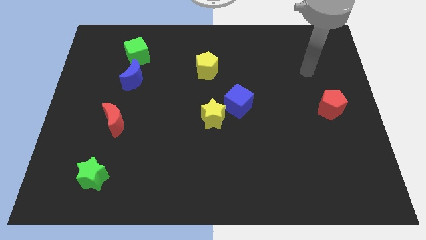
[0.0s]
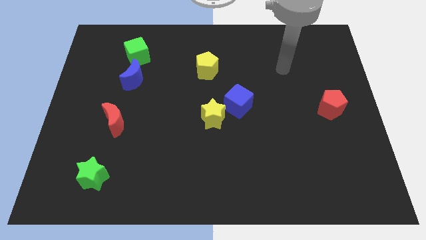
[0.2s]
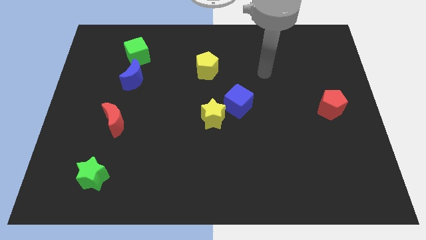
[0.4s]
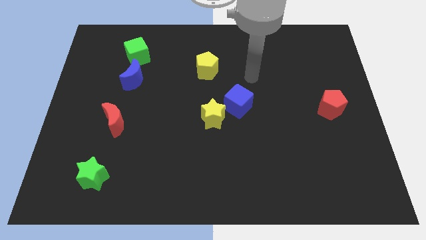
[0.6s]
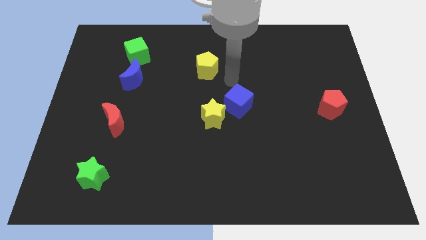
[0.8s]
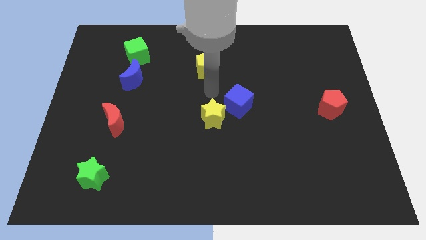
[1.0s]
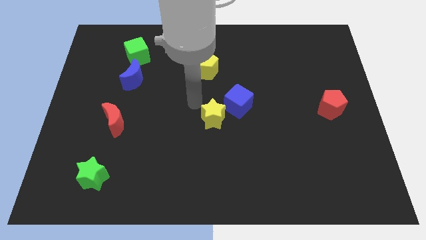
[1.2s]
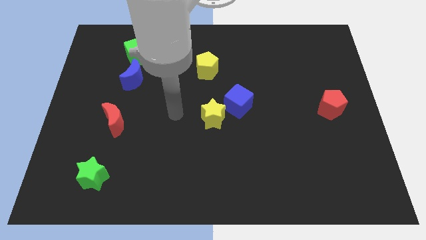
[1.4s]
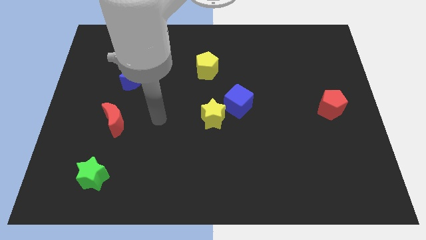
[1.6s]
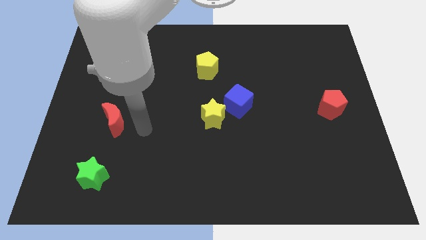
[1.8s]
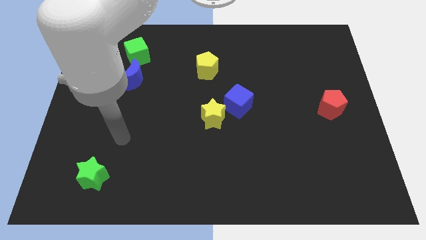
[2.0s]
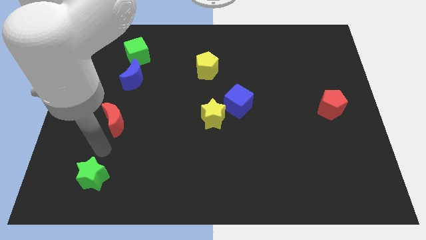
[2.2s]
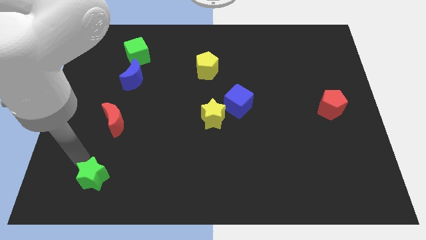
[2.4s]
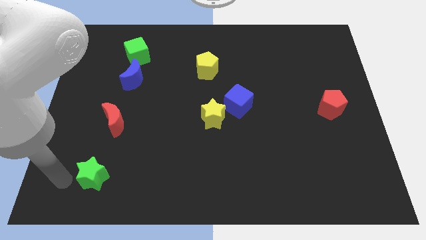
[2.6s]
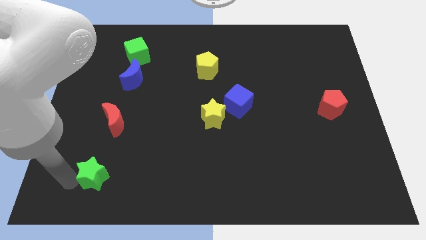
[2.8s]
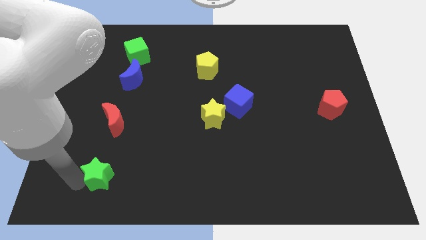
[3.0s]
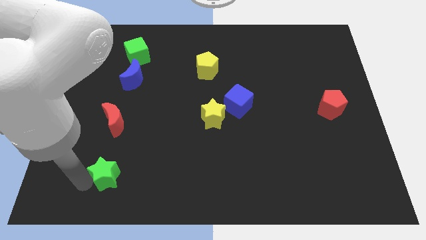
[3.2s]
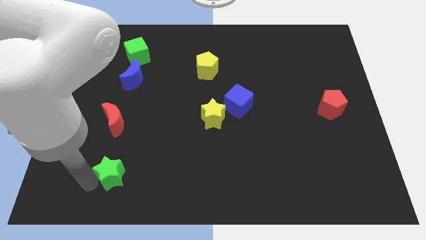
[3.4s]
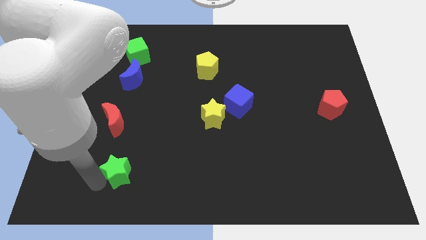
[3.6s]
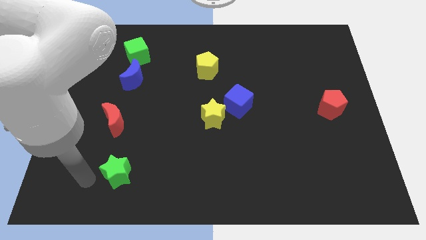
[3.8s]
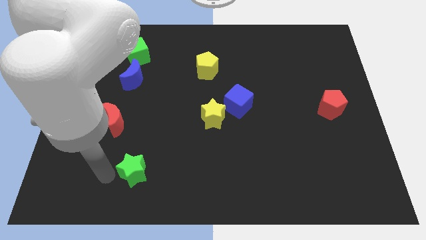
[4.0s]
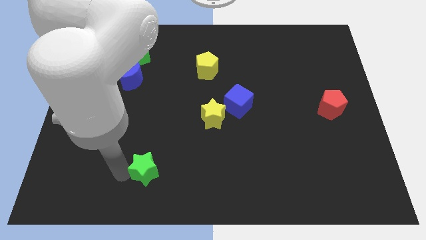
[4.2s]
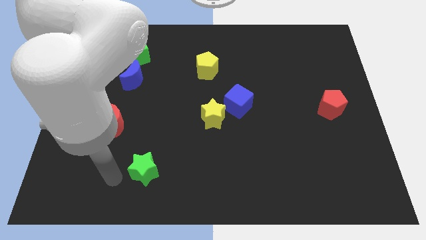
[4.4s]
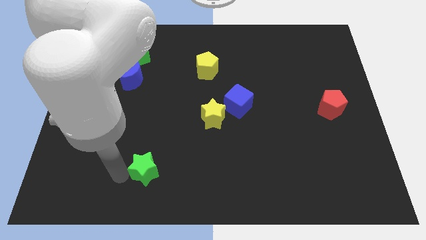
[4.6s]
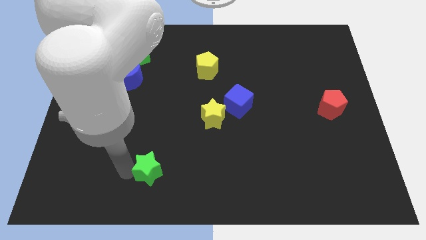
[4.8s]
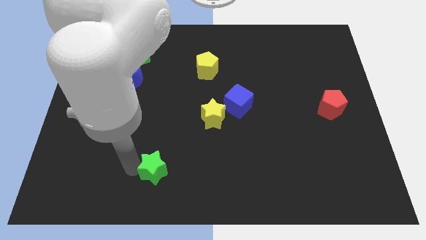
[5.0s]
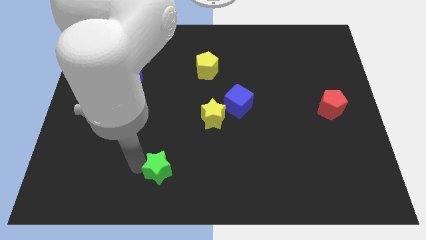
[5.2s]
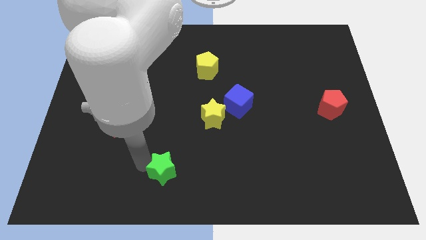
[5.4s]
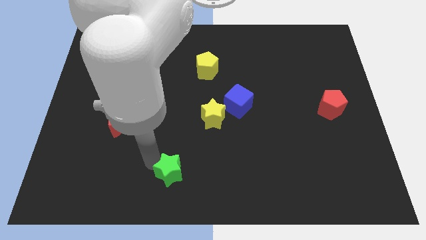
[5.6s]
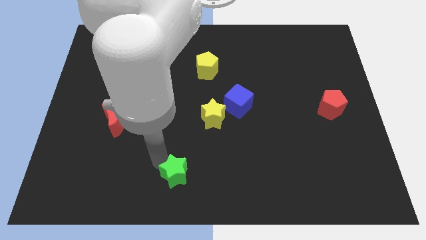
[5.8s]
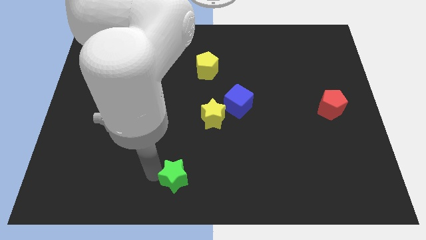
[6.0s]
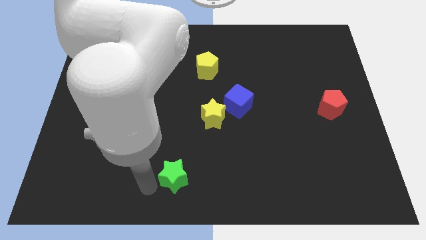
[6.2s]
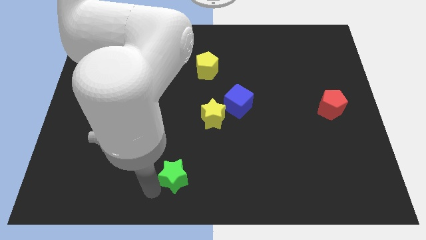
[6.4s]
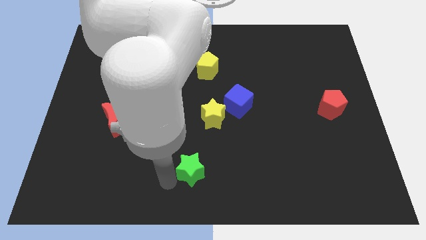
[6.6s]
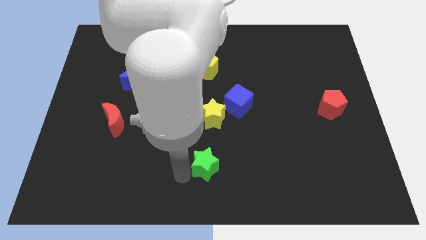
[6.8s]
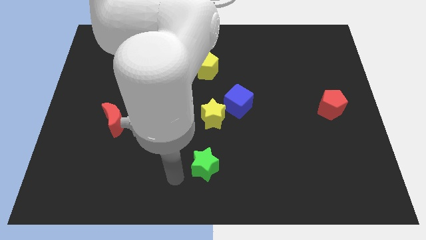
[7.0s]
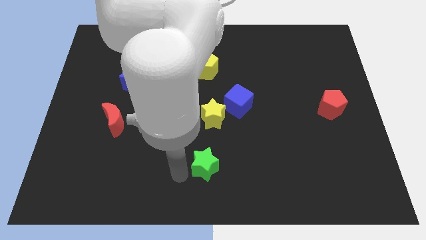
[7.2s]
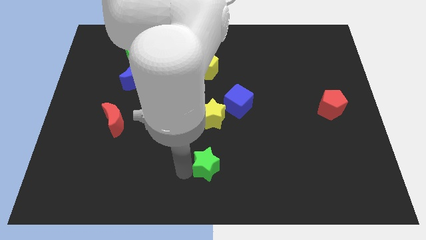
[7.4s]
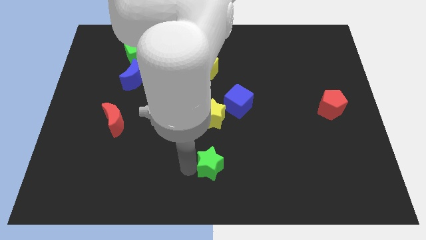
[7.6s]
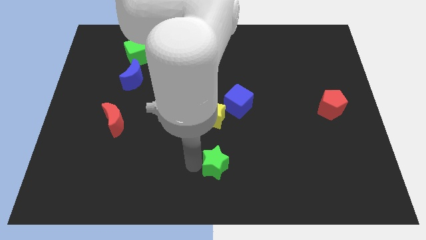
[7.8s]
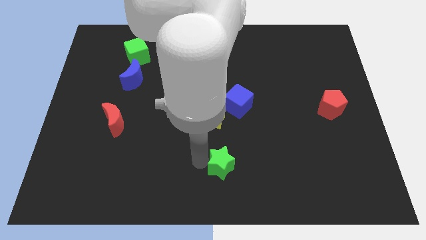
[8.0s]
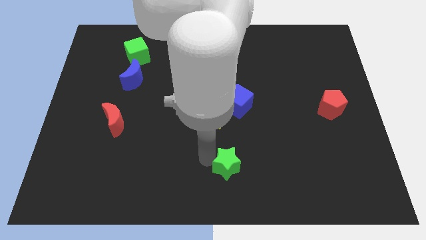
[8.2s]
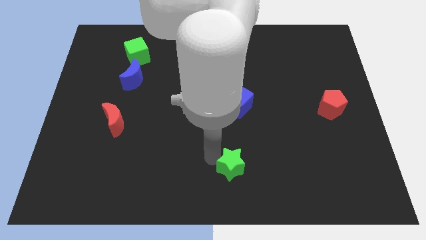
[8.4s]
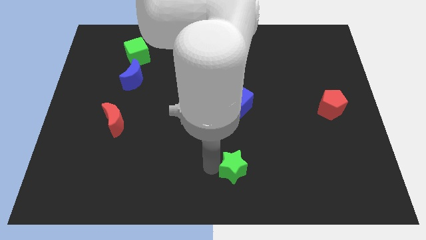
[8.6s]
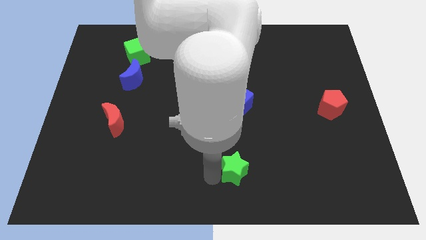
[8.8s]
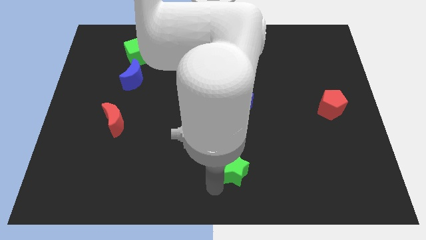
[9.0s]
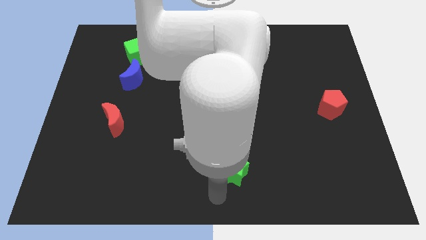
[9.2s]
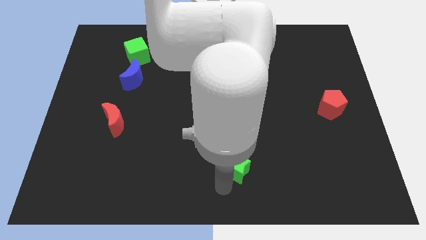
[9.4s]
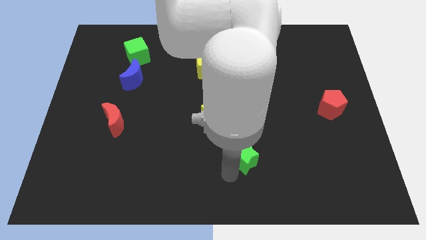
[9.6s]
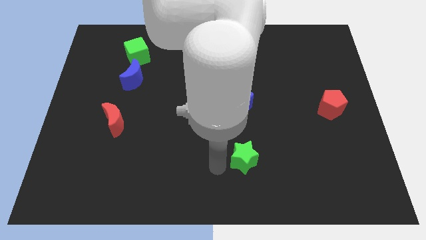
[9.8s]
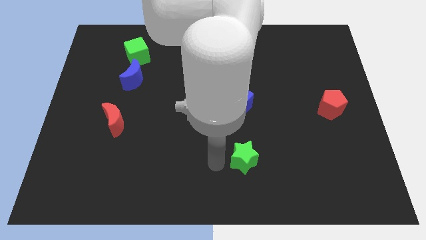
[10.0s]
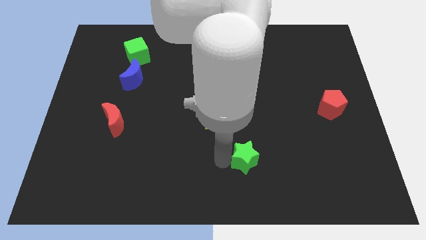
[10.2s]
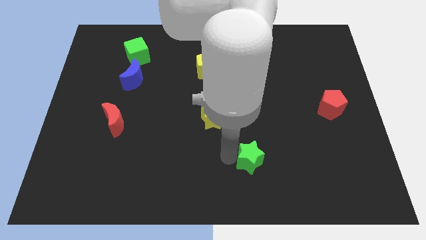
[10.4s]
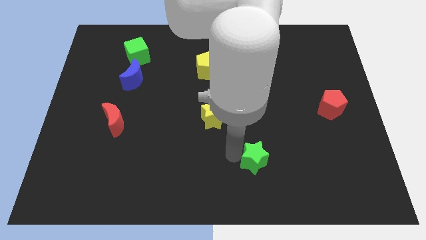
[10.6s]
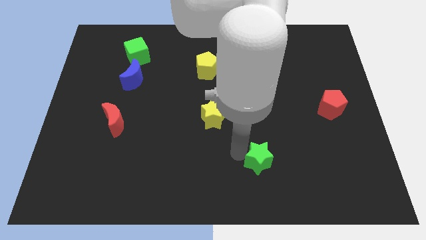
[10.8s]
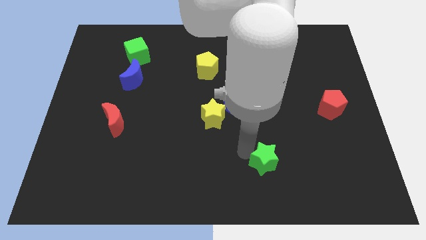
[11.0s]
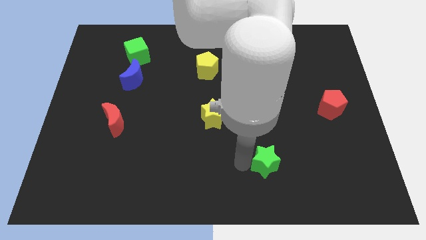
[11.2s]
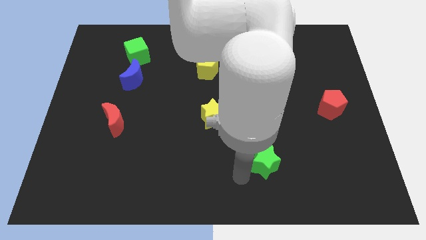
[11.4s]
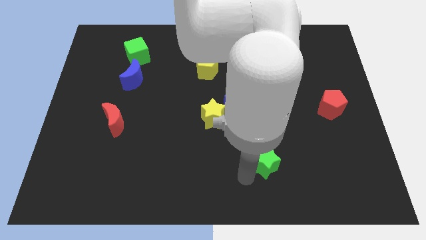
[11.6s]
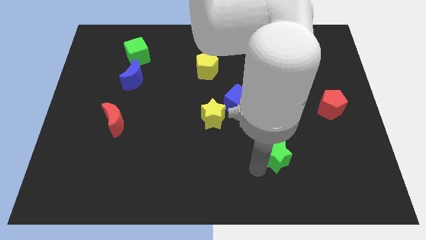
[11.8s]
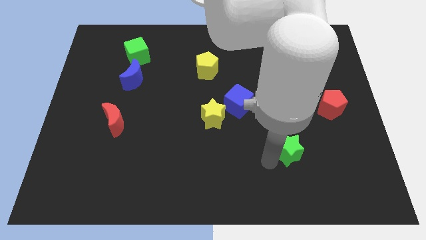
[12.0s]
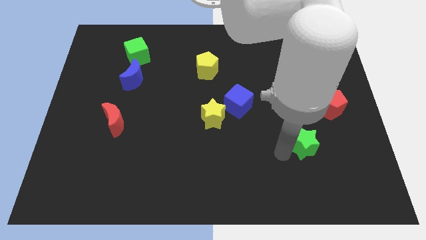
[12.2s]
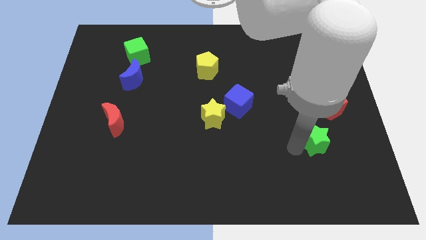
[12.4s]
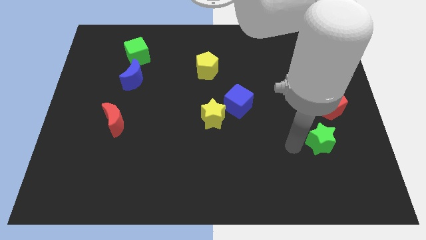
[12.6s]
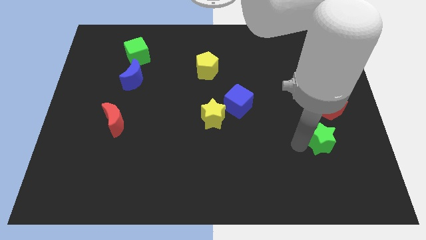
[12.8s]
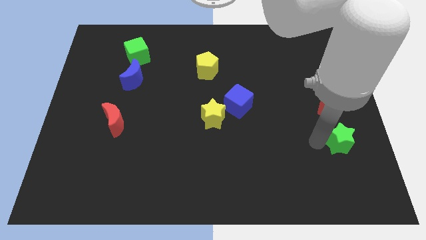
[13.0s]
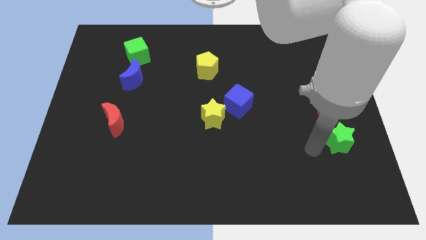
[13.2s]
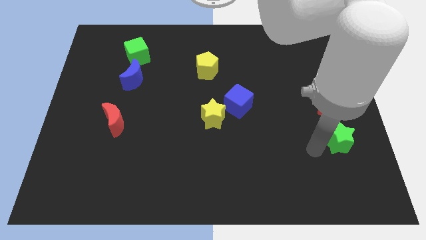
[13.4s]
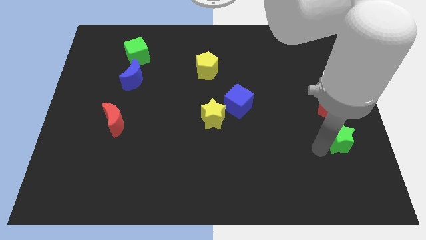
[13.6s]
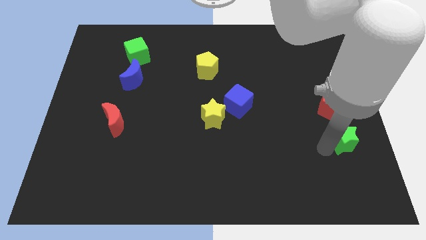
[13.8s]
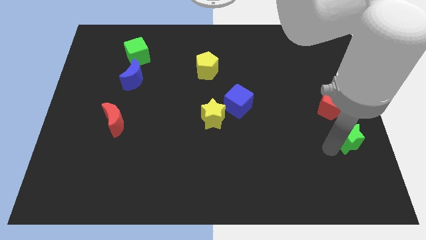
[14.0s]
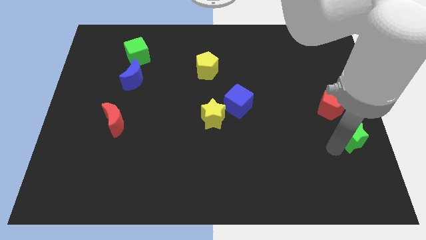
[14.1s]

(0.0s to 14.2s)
push the green star to the center right
